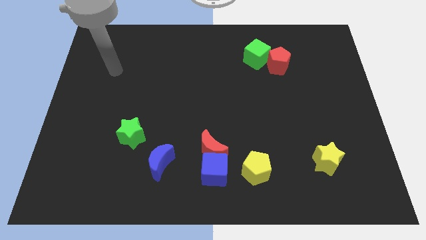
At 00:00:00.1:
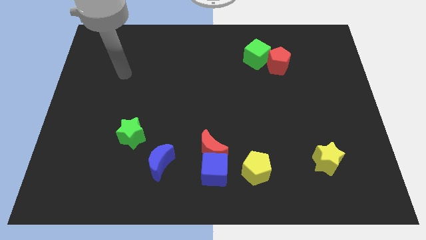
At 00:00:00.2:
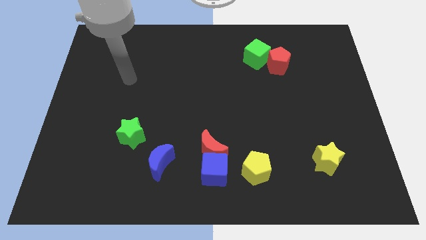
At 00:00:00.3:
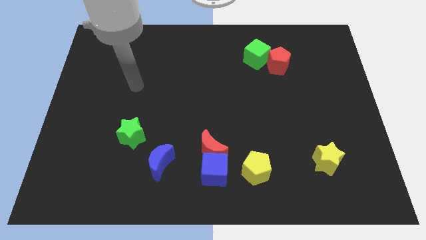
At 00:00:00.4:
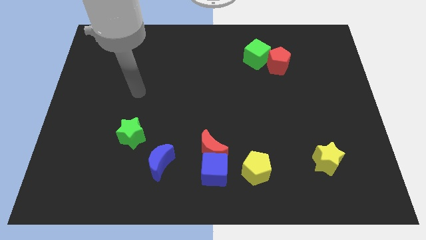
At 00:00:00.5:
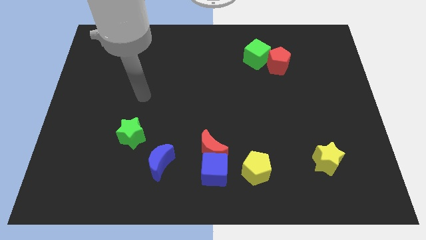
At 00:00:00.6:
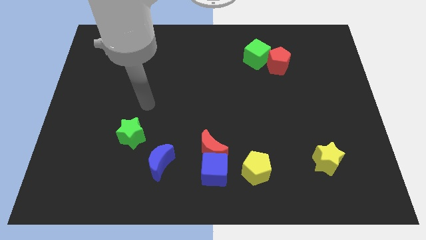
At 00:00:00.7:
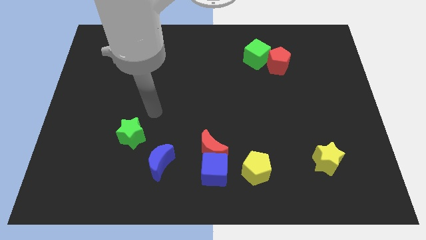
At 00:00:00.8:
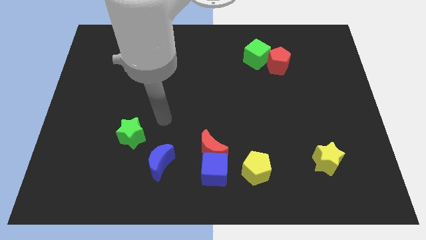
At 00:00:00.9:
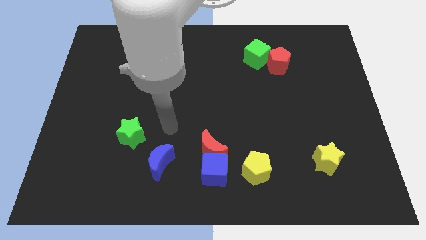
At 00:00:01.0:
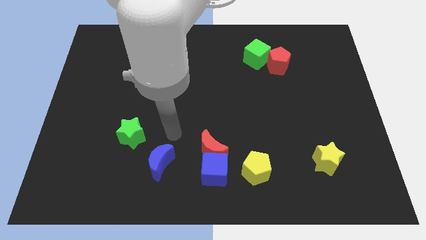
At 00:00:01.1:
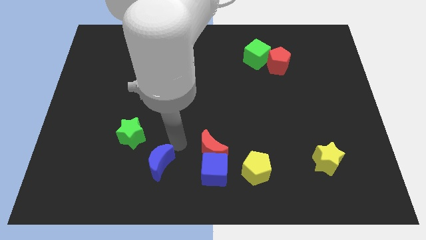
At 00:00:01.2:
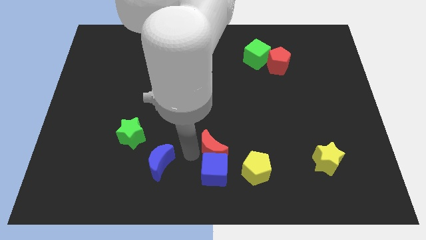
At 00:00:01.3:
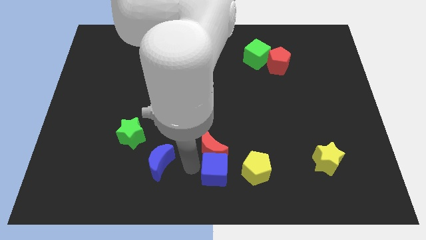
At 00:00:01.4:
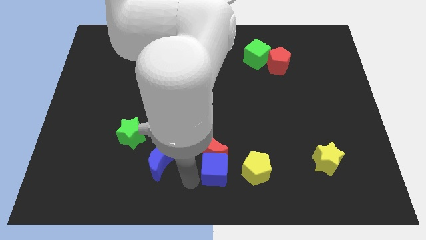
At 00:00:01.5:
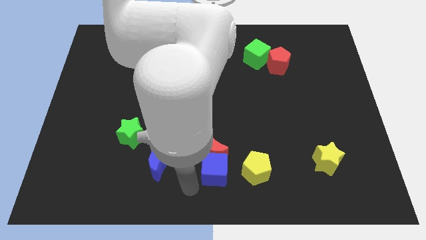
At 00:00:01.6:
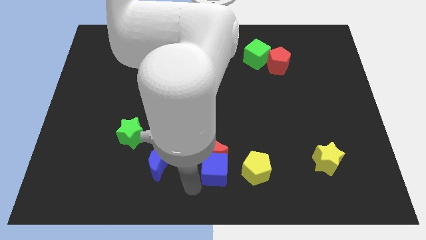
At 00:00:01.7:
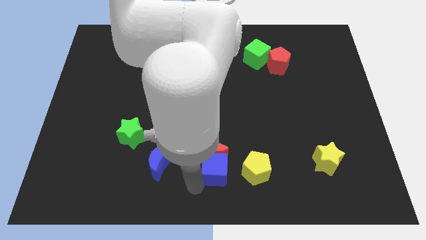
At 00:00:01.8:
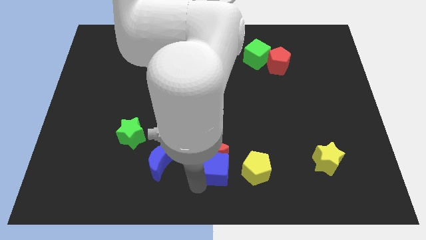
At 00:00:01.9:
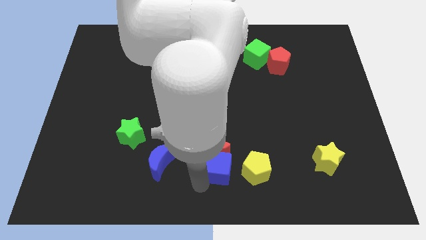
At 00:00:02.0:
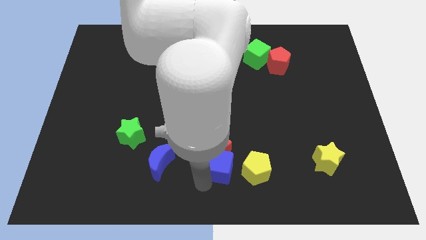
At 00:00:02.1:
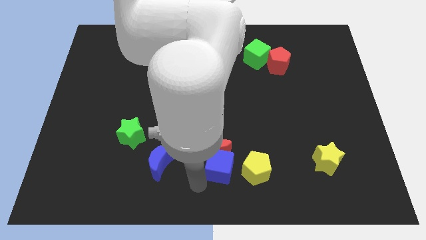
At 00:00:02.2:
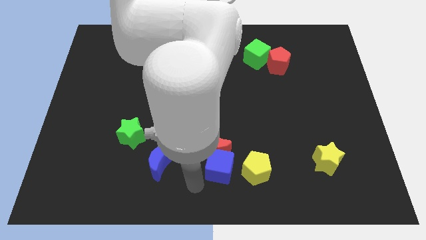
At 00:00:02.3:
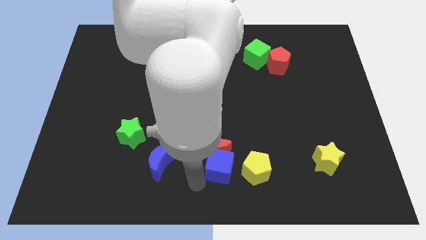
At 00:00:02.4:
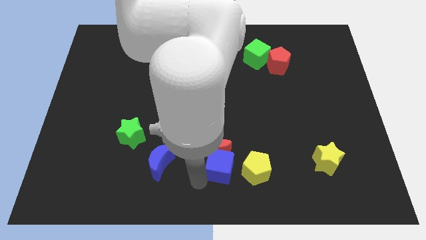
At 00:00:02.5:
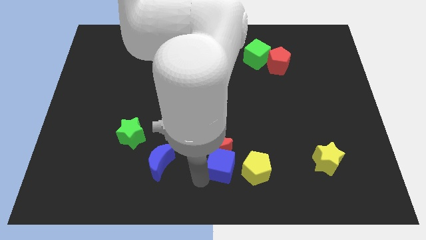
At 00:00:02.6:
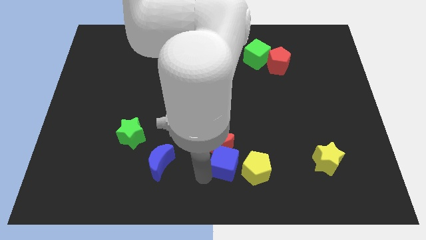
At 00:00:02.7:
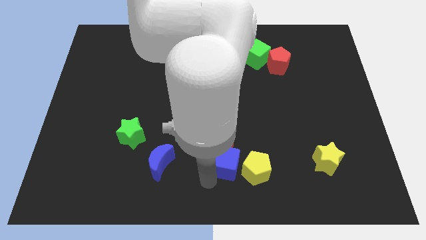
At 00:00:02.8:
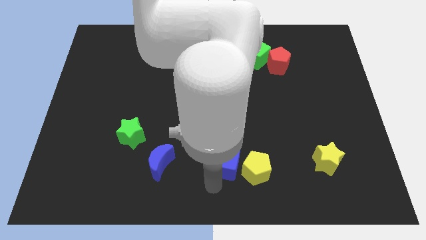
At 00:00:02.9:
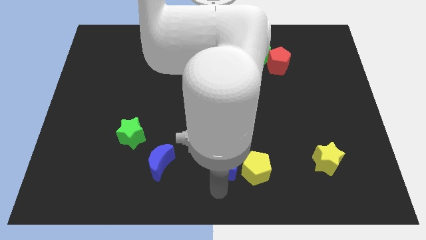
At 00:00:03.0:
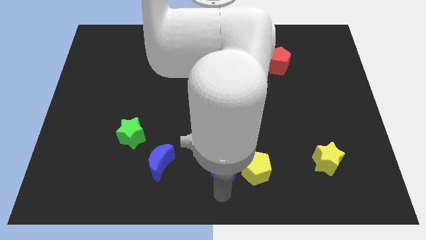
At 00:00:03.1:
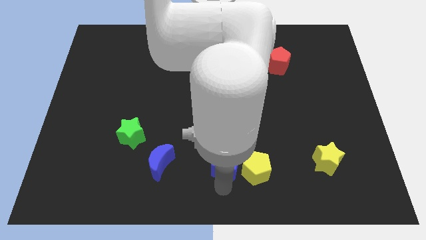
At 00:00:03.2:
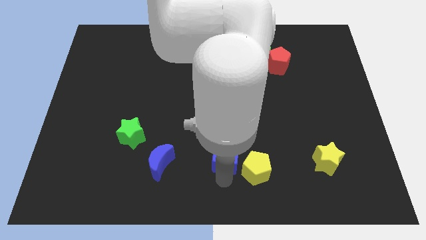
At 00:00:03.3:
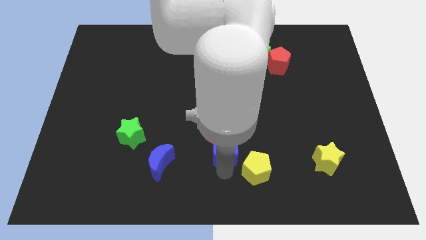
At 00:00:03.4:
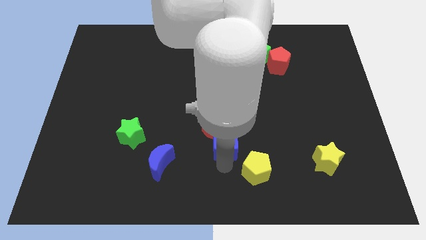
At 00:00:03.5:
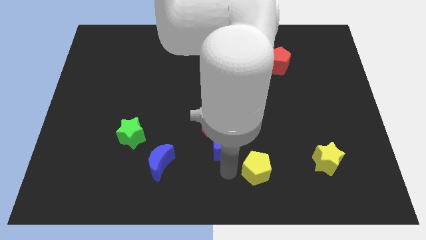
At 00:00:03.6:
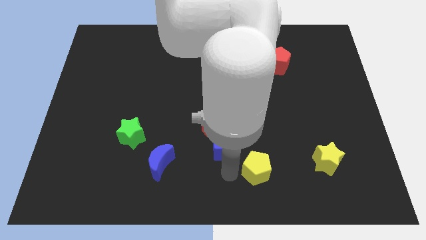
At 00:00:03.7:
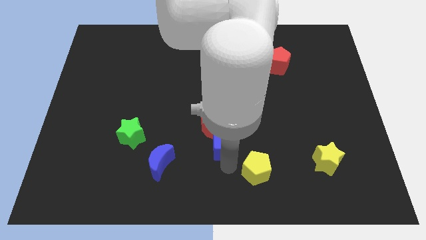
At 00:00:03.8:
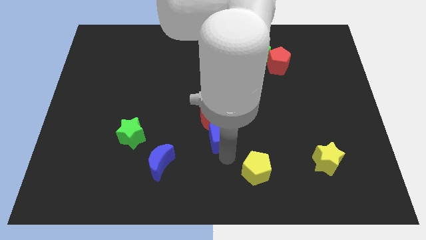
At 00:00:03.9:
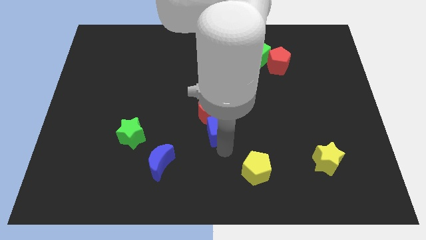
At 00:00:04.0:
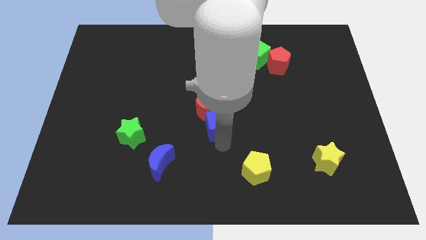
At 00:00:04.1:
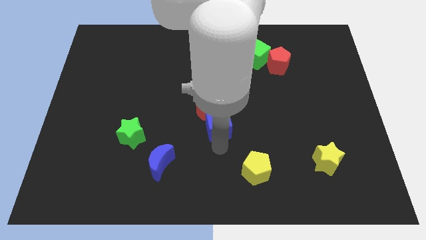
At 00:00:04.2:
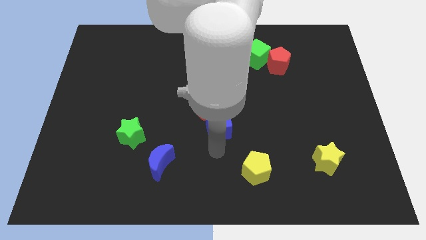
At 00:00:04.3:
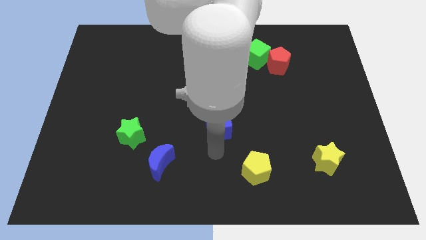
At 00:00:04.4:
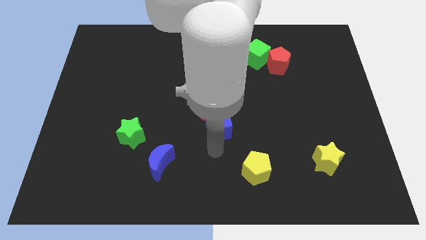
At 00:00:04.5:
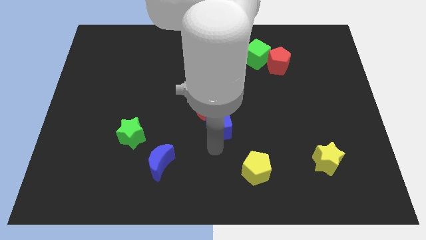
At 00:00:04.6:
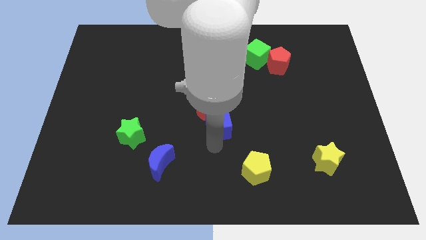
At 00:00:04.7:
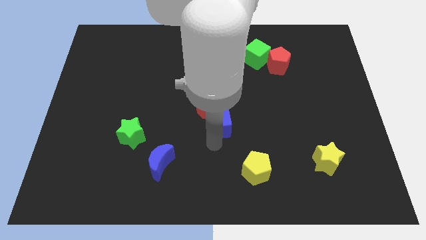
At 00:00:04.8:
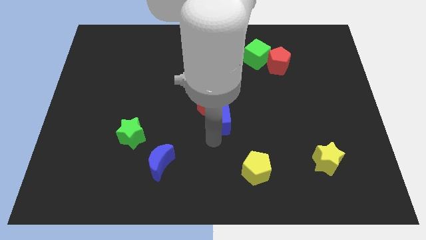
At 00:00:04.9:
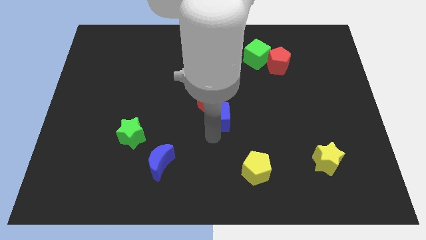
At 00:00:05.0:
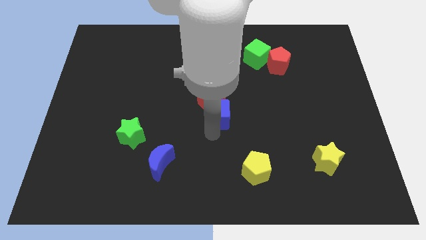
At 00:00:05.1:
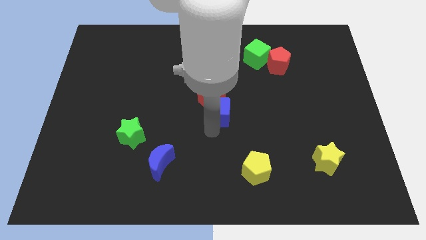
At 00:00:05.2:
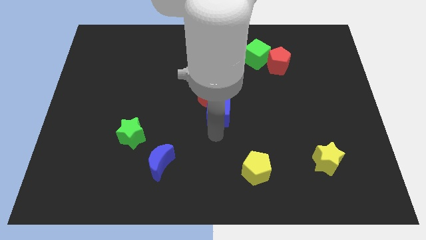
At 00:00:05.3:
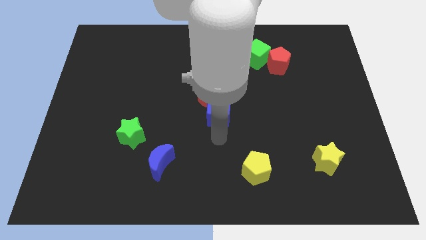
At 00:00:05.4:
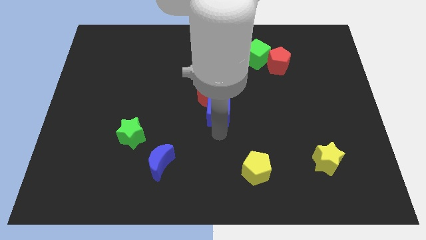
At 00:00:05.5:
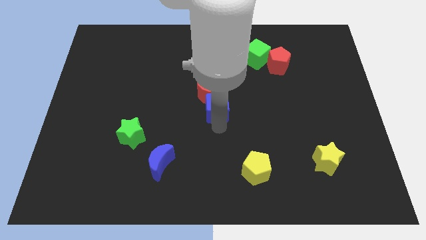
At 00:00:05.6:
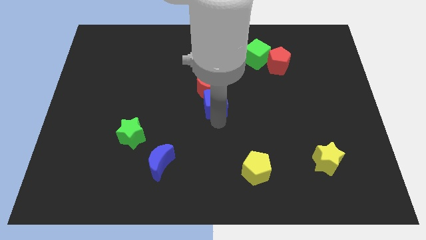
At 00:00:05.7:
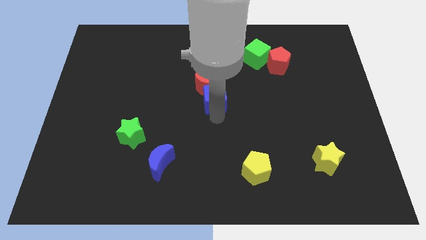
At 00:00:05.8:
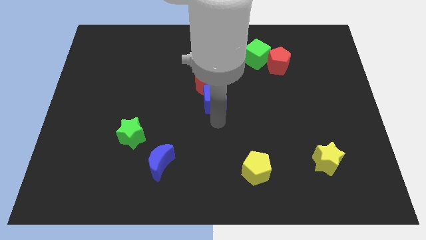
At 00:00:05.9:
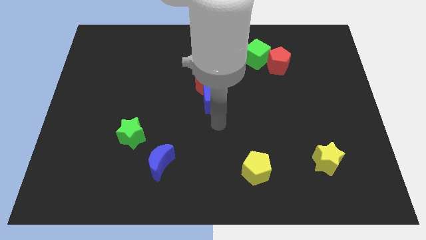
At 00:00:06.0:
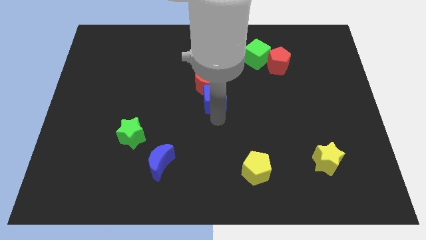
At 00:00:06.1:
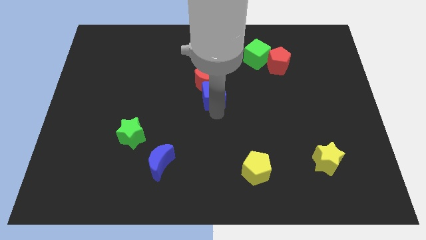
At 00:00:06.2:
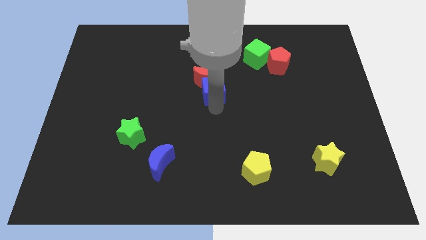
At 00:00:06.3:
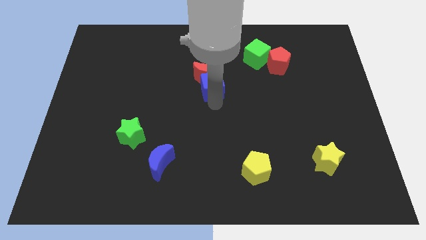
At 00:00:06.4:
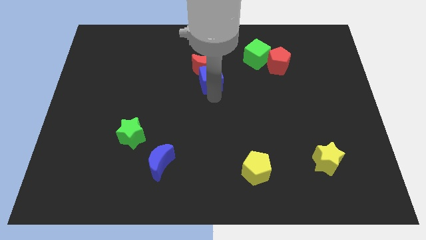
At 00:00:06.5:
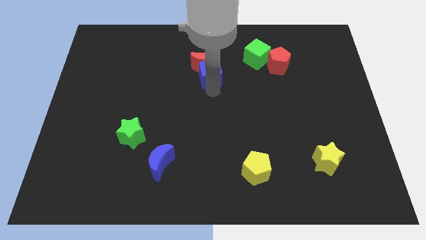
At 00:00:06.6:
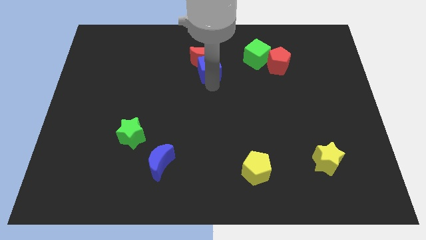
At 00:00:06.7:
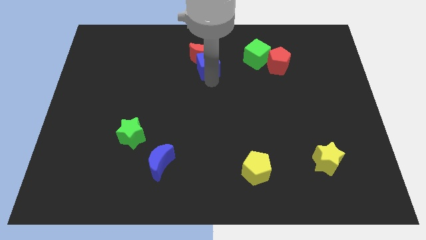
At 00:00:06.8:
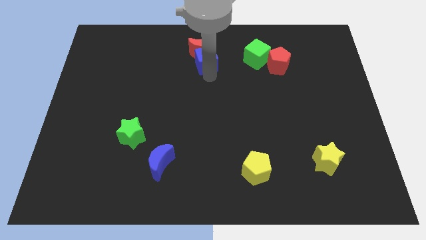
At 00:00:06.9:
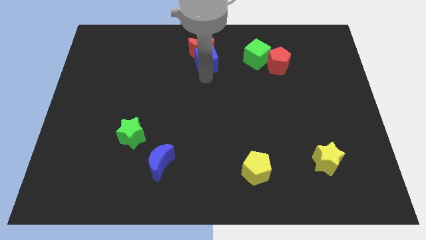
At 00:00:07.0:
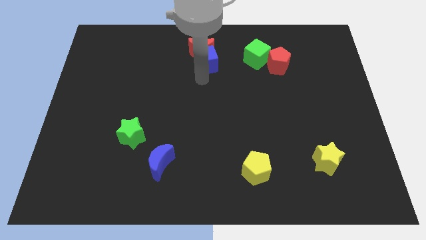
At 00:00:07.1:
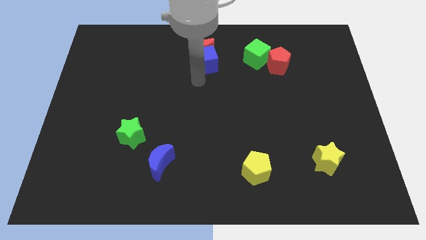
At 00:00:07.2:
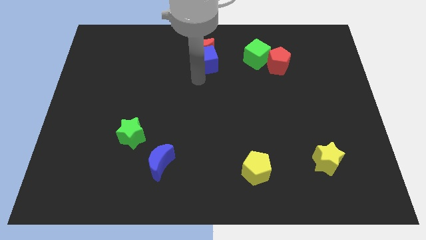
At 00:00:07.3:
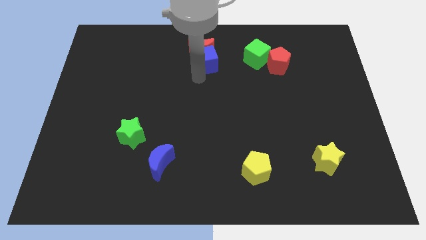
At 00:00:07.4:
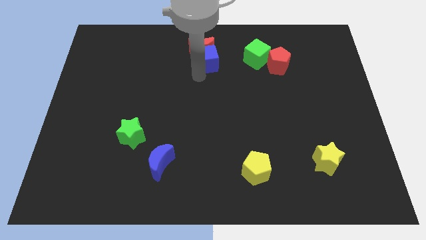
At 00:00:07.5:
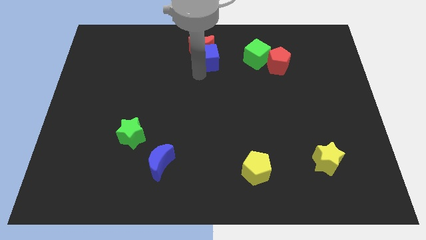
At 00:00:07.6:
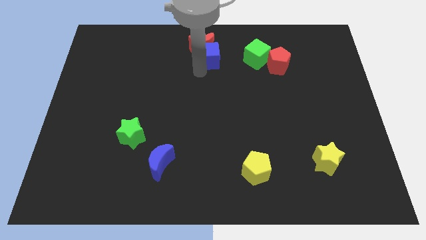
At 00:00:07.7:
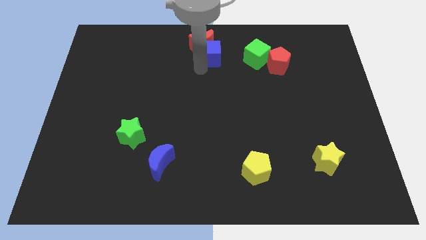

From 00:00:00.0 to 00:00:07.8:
put the blue cube to the towards your base
